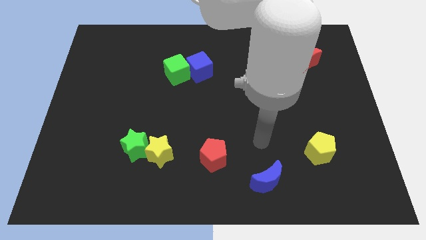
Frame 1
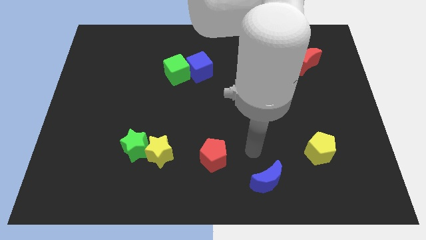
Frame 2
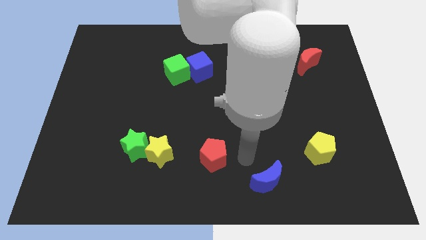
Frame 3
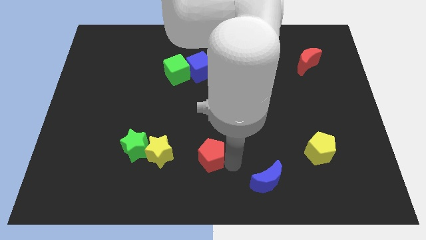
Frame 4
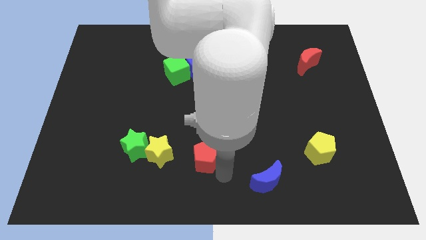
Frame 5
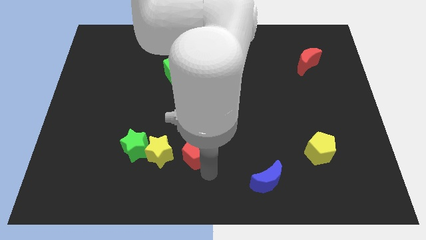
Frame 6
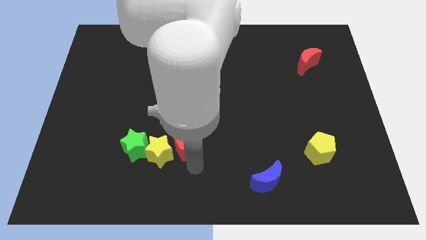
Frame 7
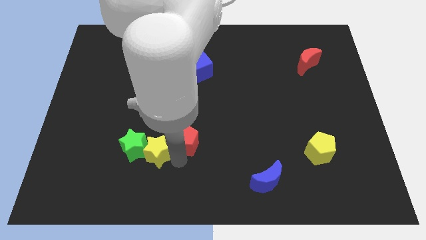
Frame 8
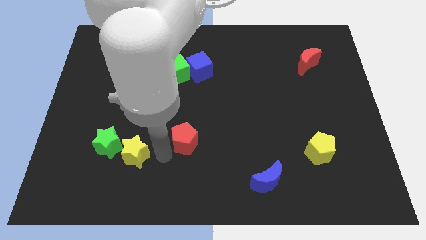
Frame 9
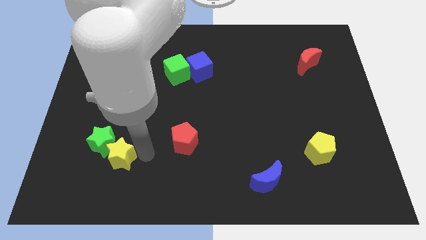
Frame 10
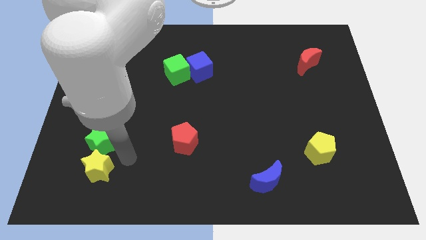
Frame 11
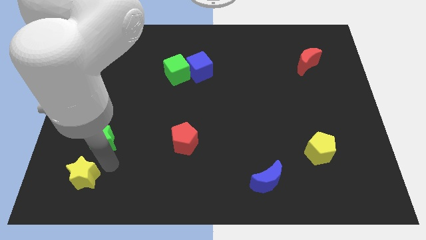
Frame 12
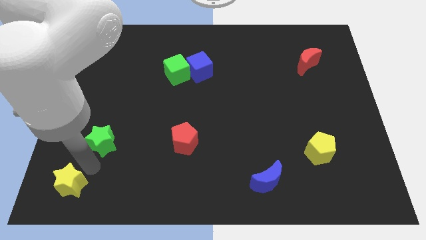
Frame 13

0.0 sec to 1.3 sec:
pull the green star apart from the yellow star

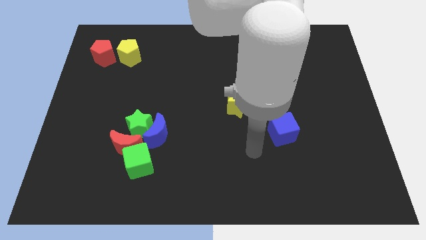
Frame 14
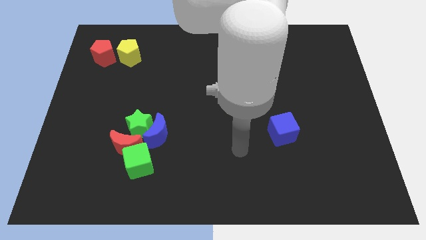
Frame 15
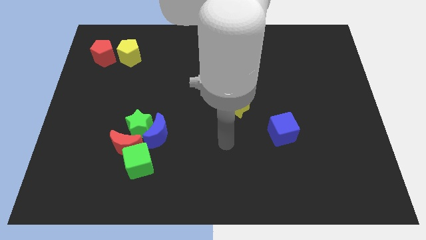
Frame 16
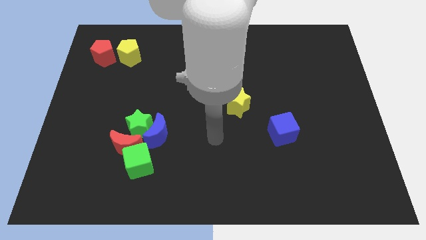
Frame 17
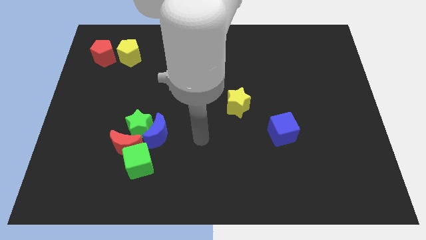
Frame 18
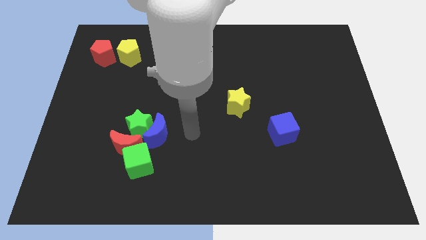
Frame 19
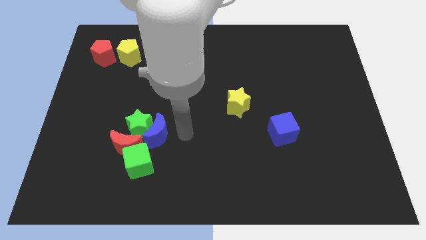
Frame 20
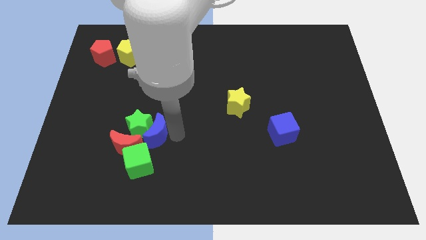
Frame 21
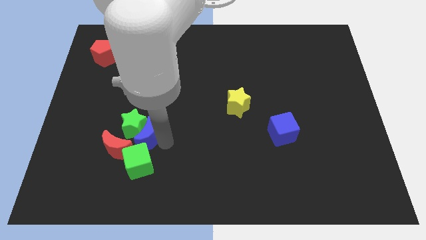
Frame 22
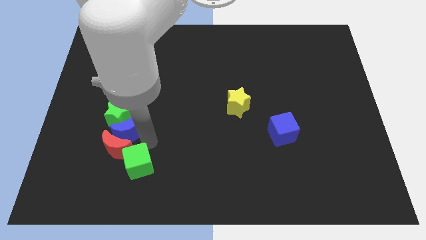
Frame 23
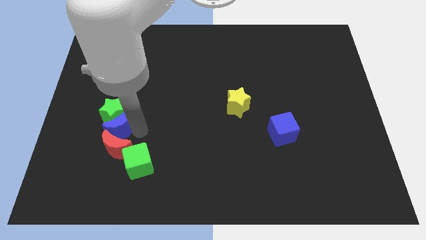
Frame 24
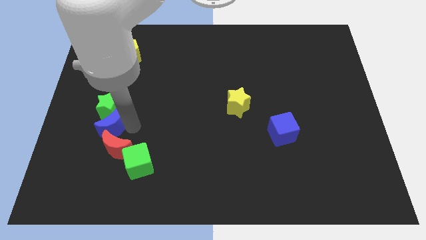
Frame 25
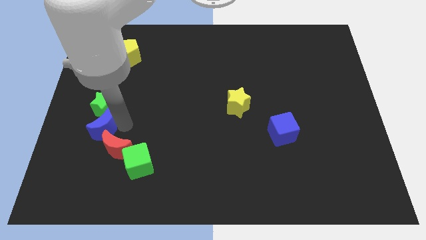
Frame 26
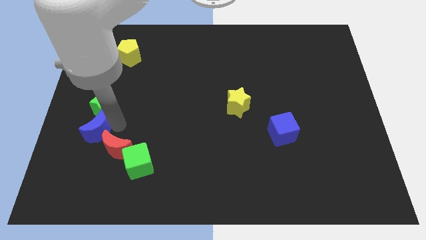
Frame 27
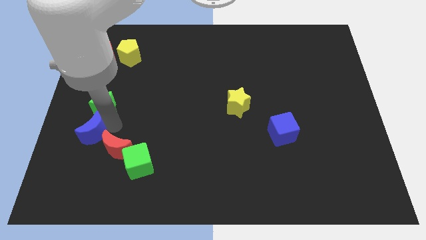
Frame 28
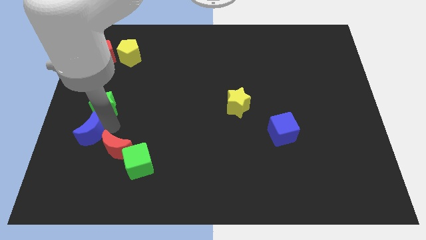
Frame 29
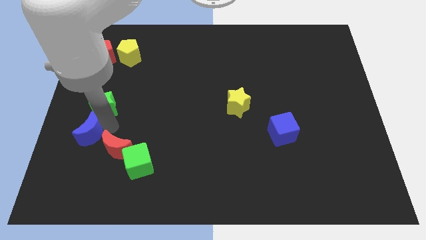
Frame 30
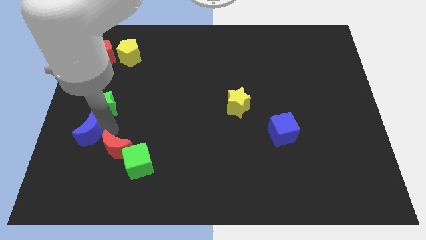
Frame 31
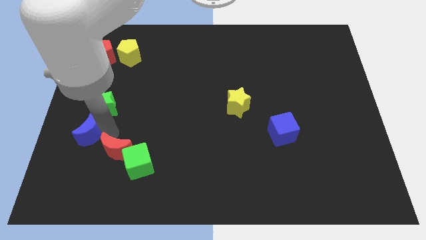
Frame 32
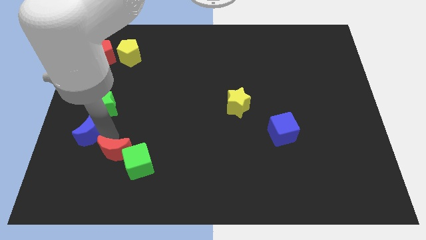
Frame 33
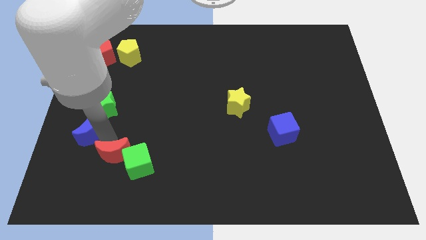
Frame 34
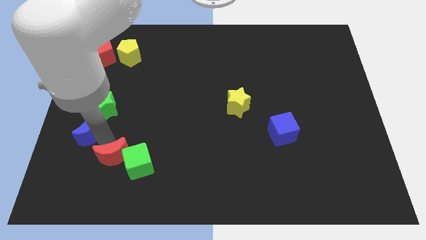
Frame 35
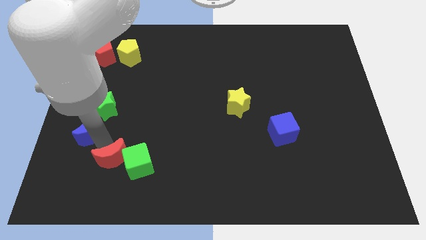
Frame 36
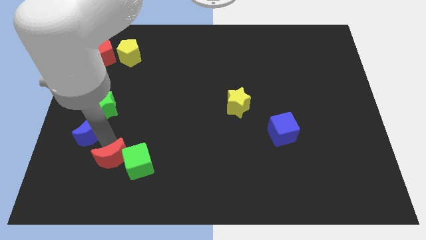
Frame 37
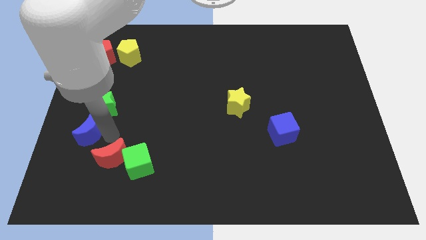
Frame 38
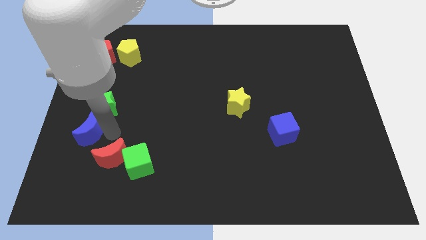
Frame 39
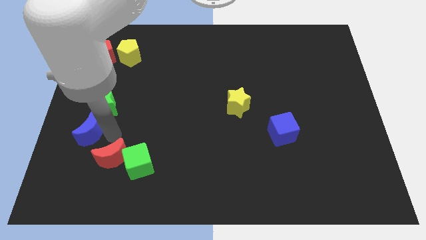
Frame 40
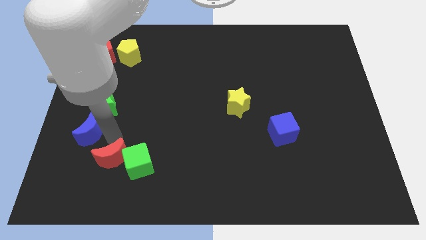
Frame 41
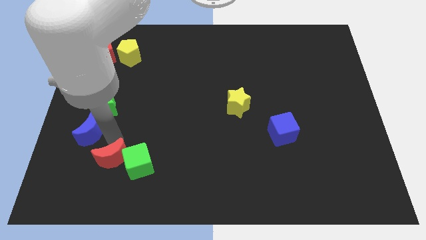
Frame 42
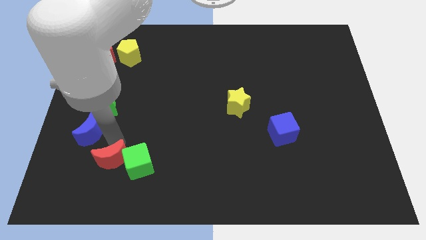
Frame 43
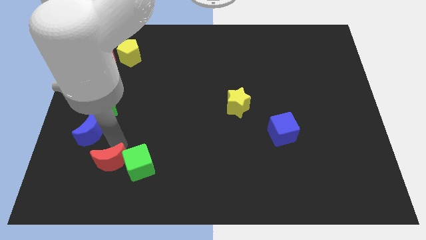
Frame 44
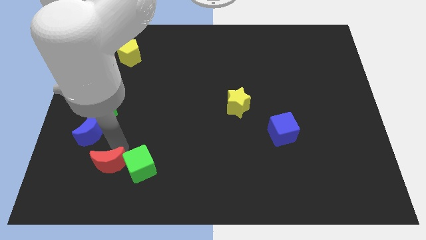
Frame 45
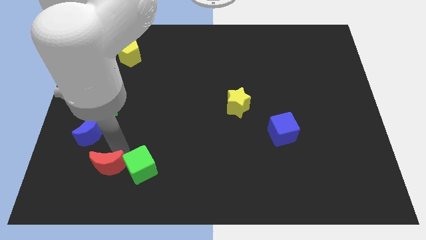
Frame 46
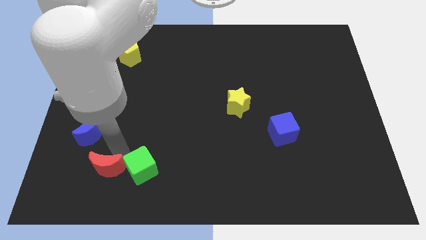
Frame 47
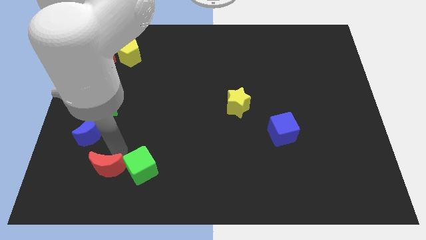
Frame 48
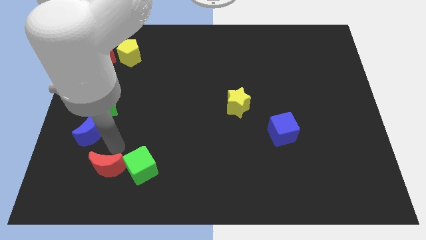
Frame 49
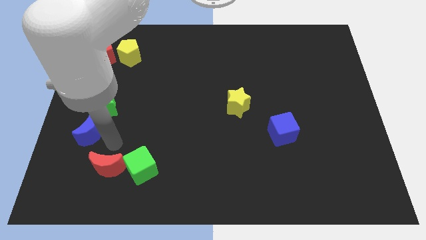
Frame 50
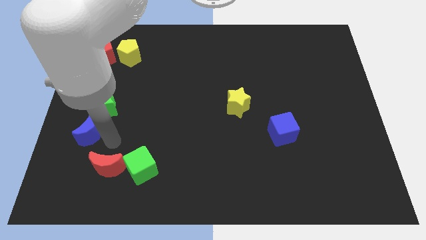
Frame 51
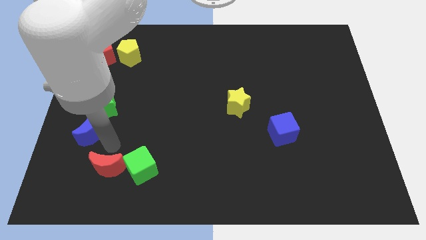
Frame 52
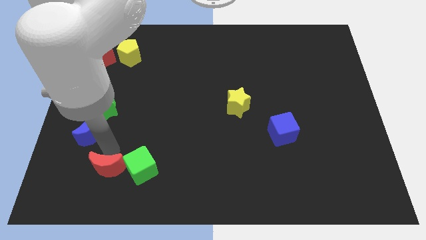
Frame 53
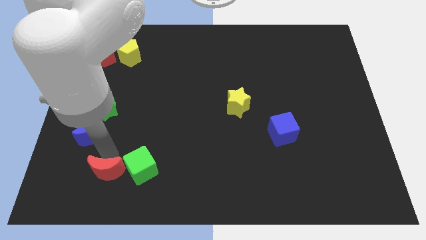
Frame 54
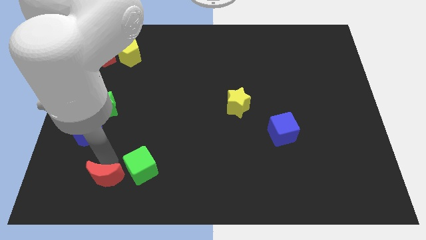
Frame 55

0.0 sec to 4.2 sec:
pull the red moon apart from the group

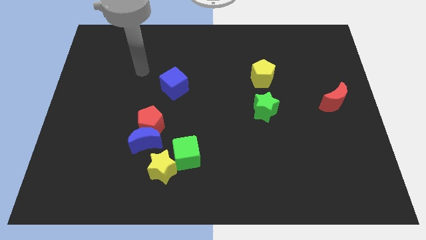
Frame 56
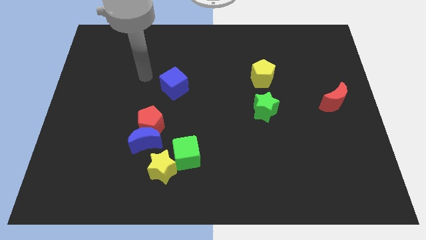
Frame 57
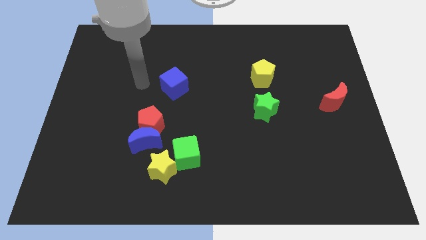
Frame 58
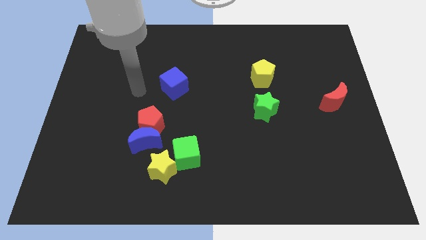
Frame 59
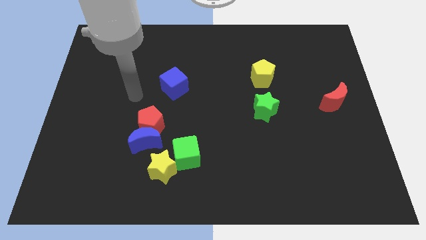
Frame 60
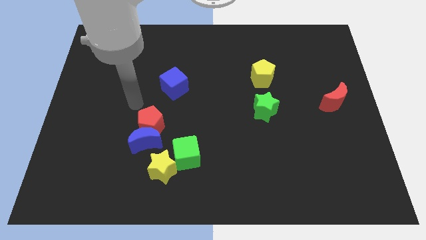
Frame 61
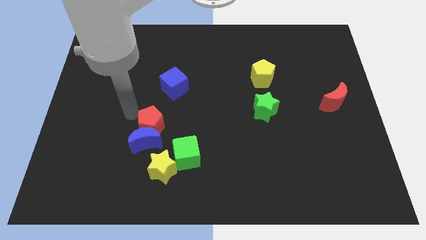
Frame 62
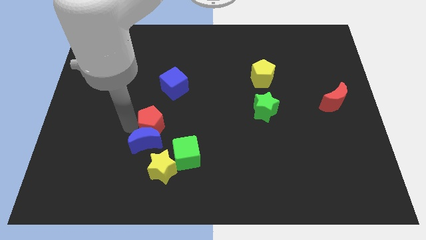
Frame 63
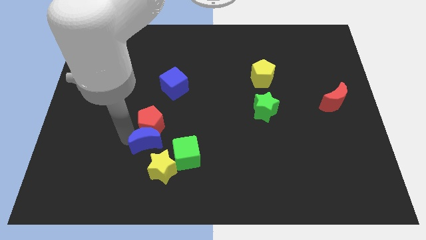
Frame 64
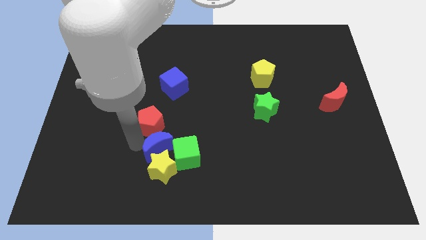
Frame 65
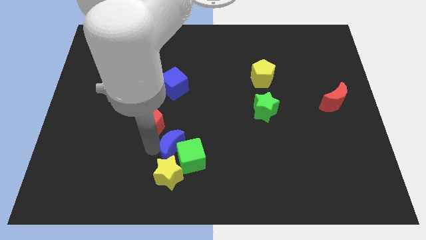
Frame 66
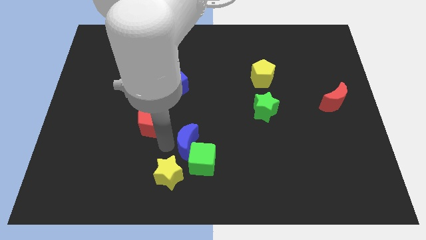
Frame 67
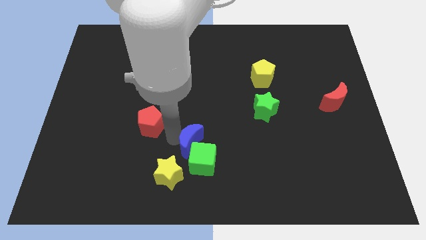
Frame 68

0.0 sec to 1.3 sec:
separate the red pentagon from the blue moon

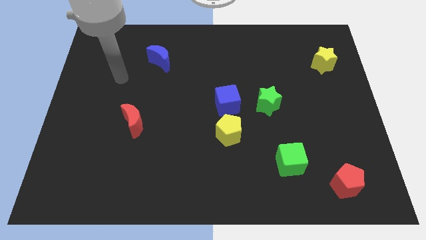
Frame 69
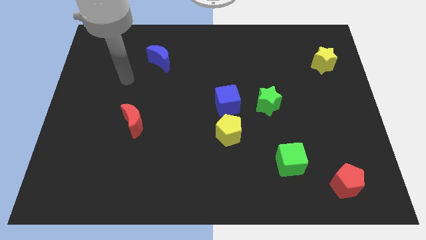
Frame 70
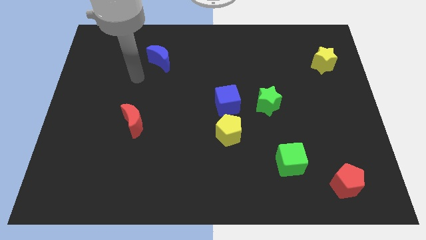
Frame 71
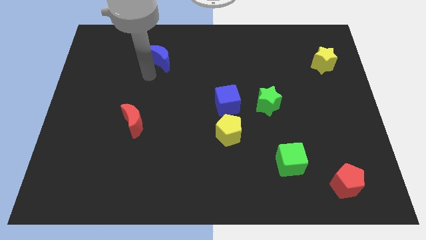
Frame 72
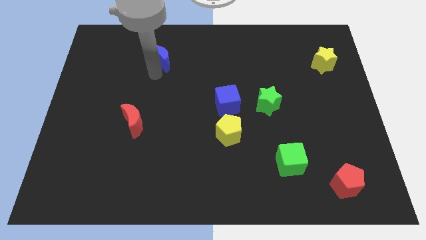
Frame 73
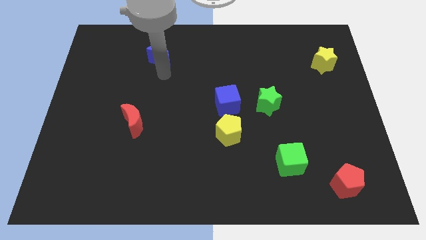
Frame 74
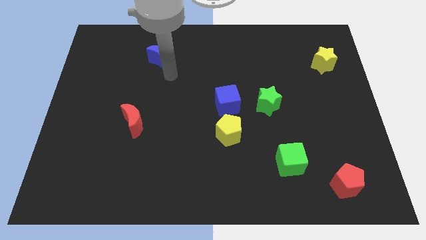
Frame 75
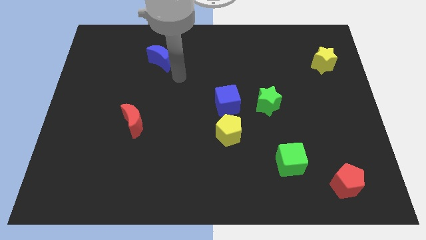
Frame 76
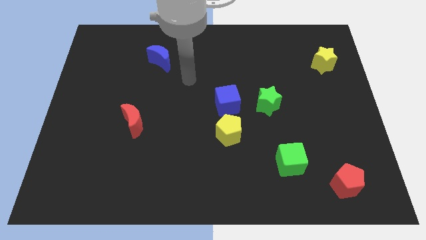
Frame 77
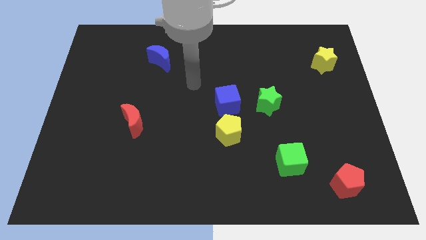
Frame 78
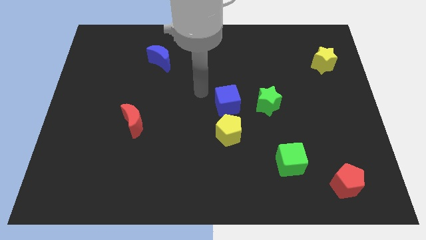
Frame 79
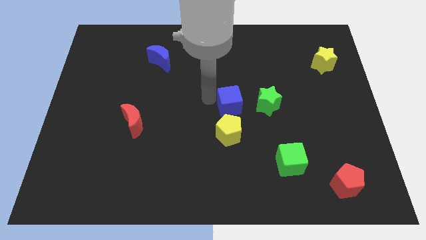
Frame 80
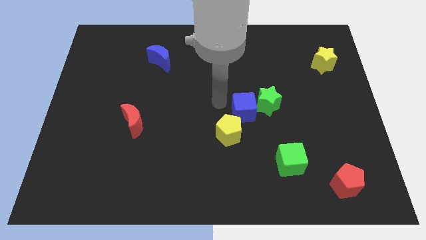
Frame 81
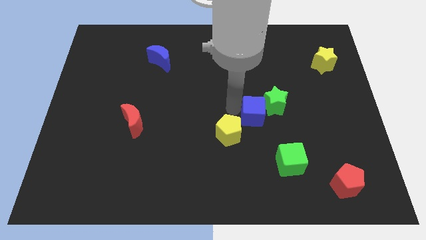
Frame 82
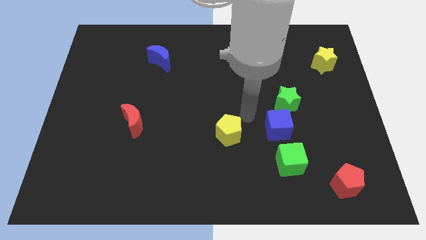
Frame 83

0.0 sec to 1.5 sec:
move the yellow pentagon away from the blue cube

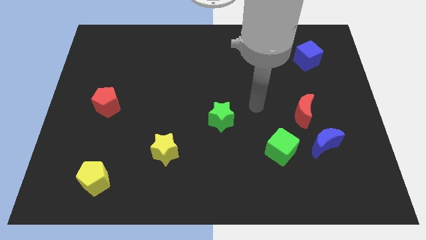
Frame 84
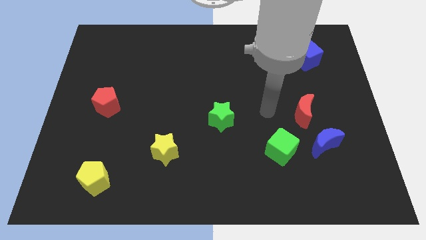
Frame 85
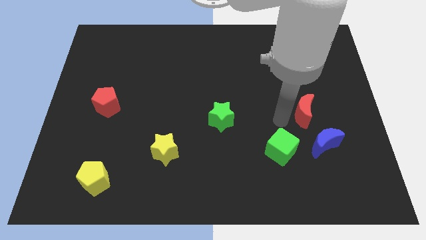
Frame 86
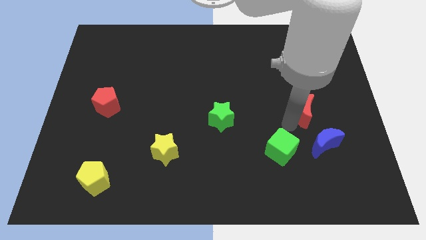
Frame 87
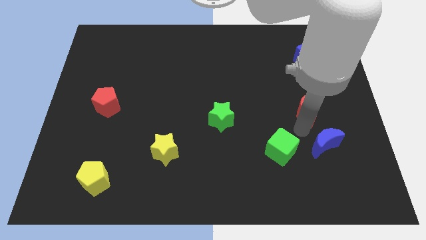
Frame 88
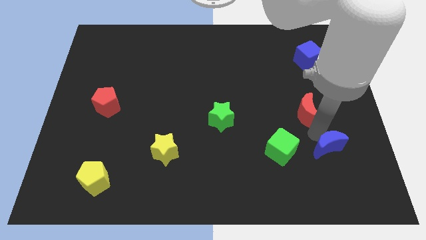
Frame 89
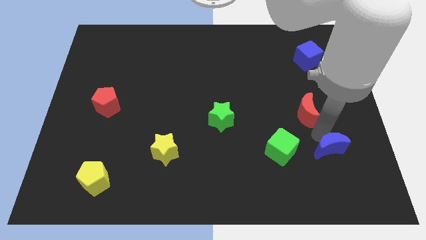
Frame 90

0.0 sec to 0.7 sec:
pull the red moon apart from the blue moon
